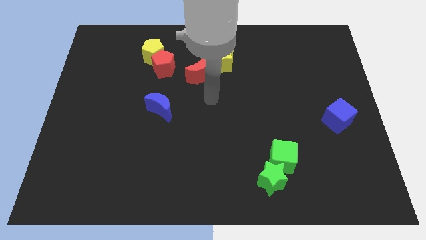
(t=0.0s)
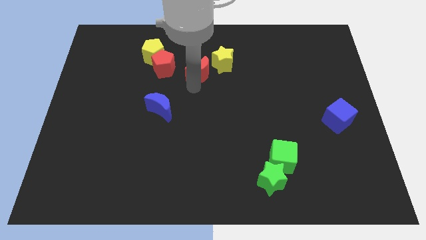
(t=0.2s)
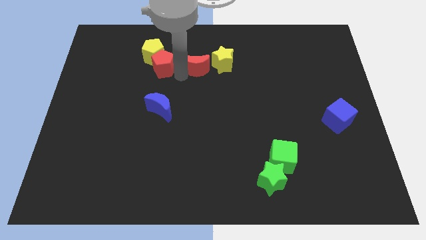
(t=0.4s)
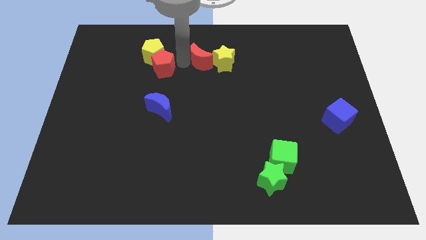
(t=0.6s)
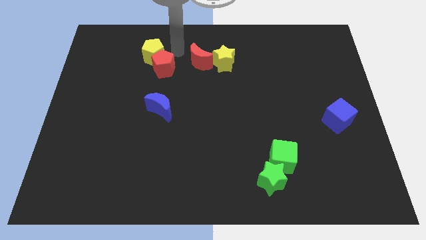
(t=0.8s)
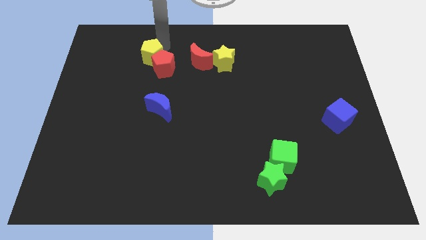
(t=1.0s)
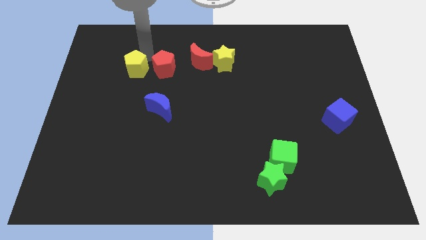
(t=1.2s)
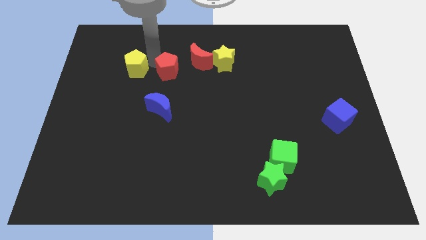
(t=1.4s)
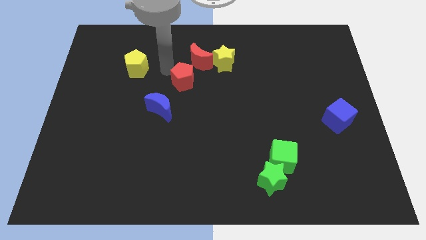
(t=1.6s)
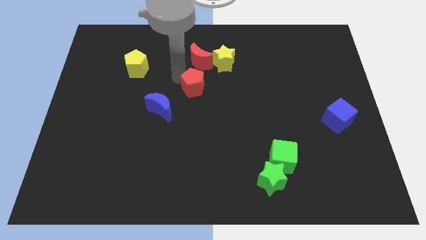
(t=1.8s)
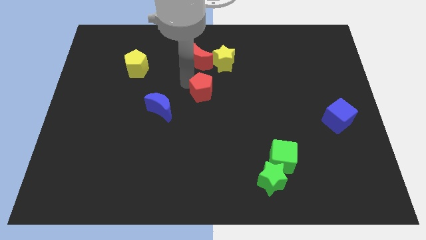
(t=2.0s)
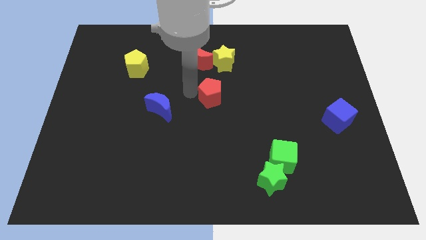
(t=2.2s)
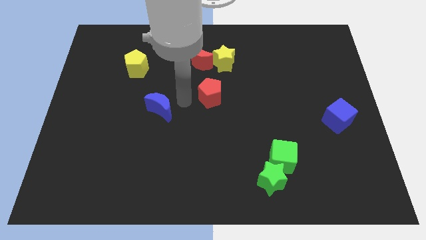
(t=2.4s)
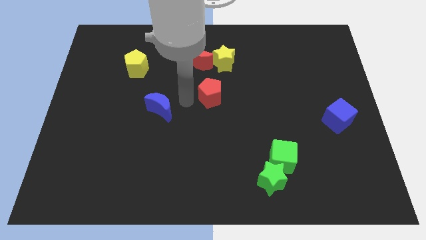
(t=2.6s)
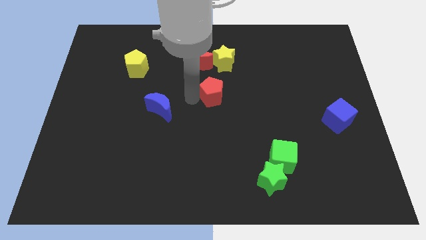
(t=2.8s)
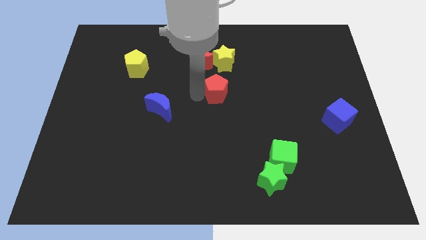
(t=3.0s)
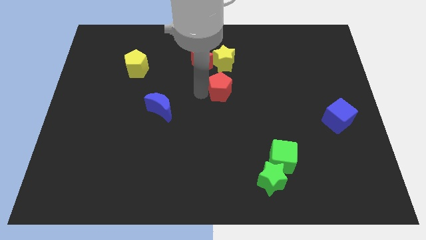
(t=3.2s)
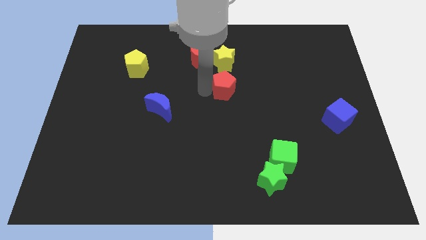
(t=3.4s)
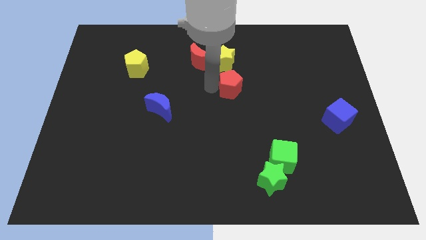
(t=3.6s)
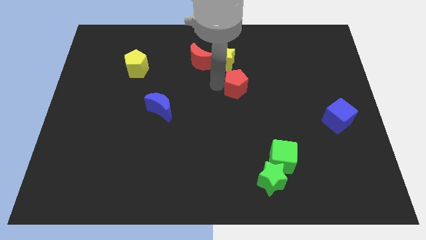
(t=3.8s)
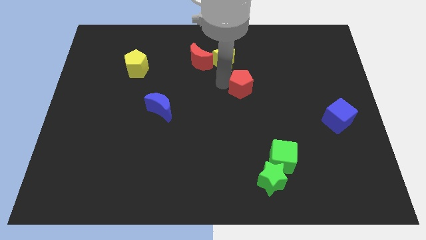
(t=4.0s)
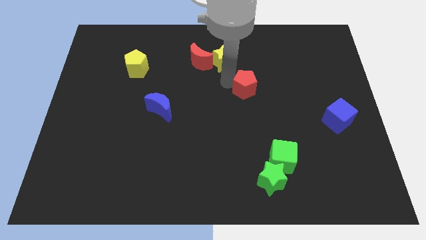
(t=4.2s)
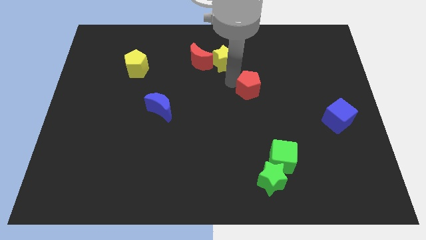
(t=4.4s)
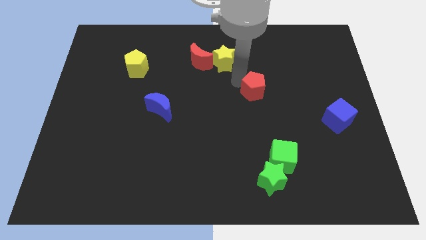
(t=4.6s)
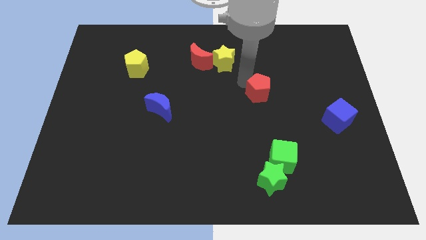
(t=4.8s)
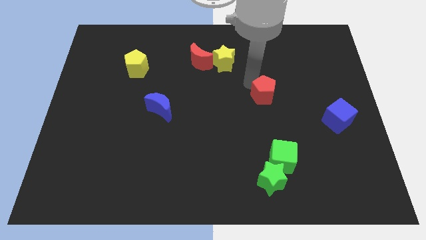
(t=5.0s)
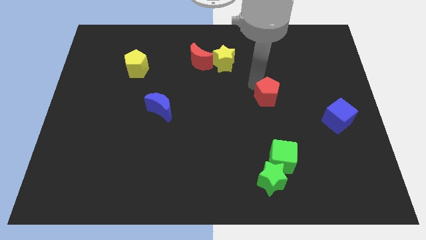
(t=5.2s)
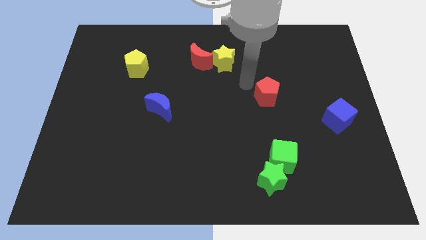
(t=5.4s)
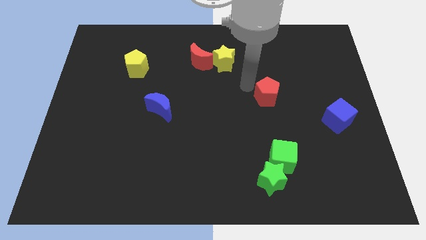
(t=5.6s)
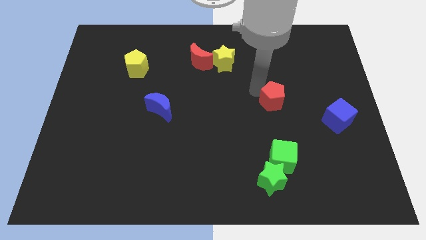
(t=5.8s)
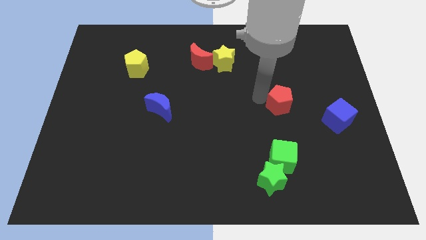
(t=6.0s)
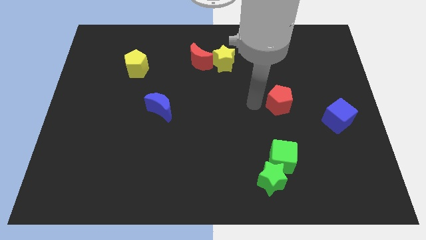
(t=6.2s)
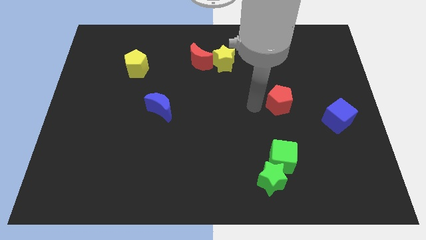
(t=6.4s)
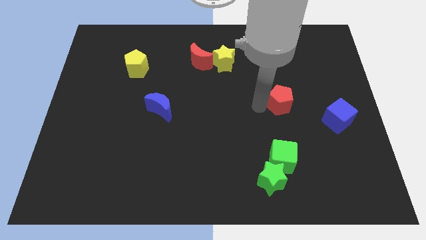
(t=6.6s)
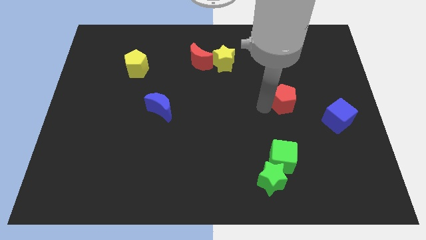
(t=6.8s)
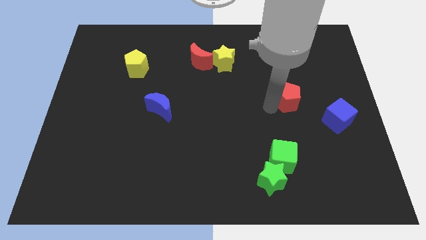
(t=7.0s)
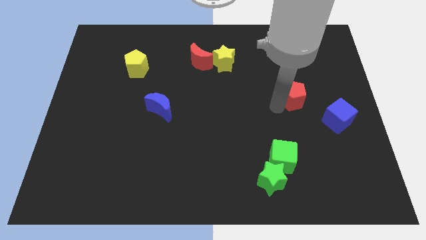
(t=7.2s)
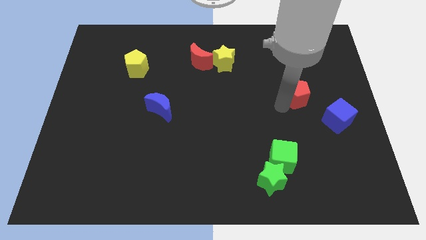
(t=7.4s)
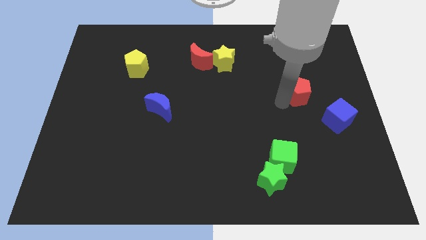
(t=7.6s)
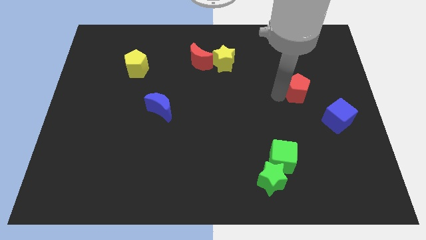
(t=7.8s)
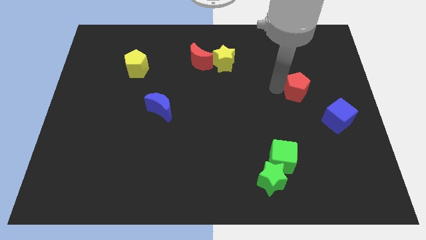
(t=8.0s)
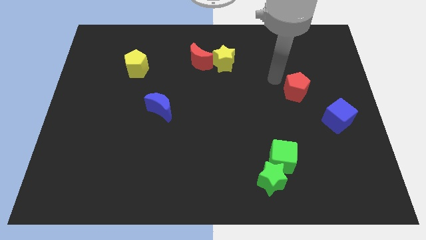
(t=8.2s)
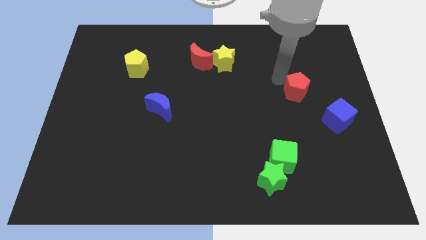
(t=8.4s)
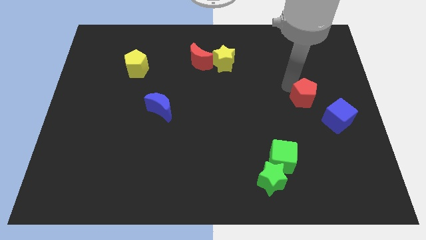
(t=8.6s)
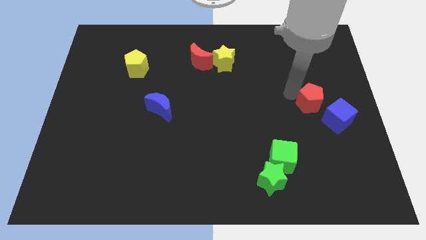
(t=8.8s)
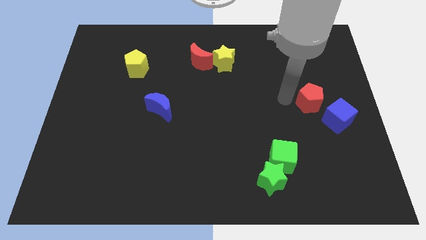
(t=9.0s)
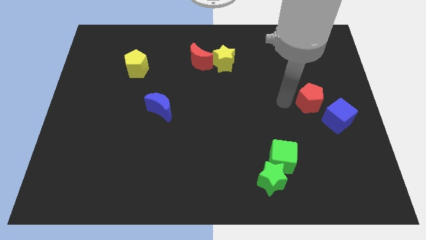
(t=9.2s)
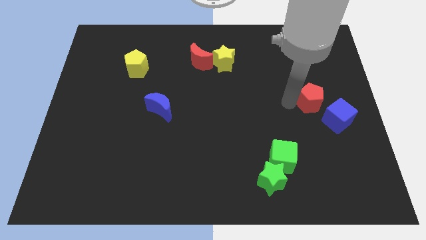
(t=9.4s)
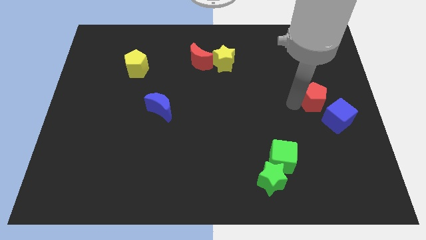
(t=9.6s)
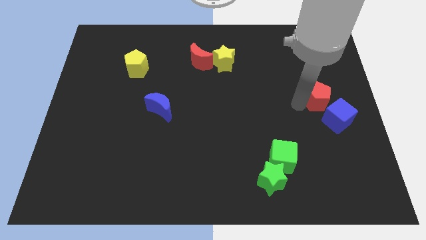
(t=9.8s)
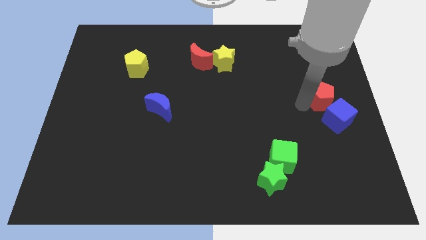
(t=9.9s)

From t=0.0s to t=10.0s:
push the red pentagon to the right side

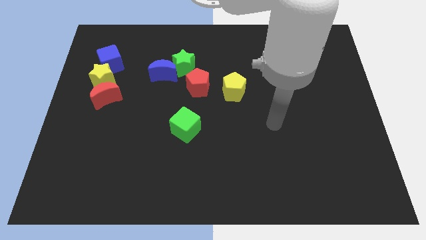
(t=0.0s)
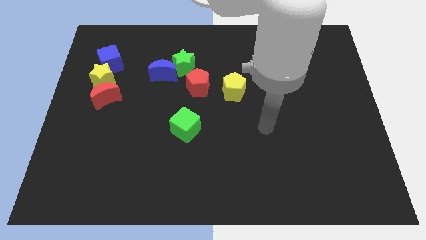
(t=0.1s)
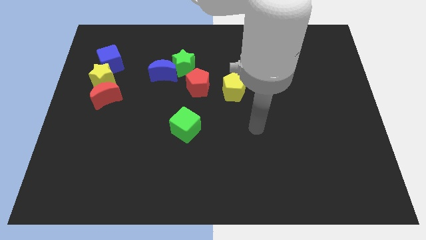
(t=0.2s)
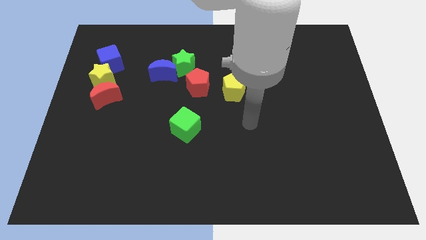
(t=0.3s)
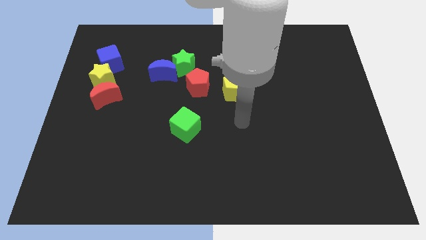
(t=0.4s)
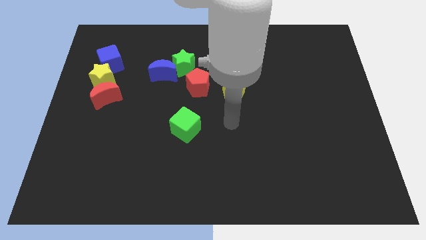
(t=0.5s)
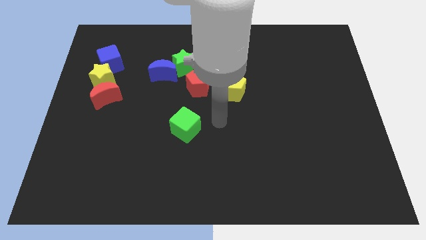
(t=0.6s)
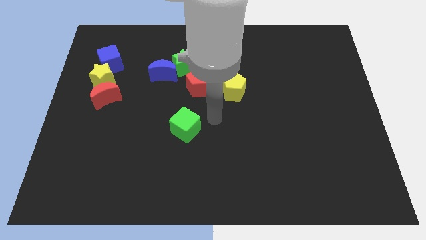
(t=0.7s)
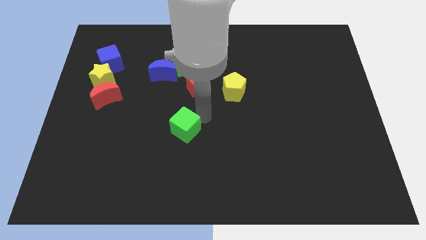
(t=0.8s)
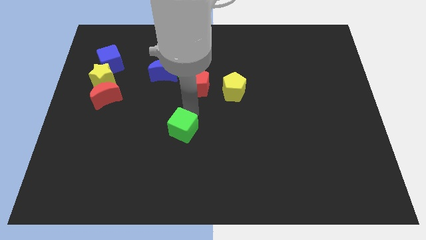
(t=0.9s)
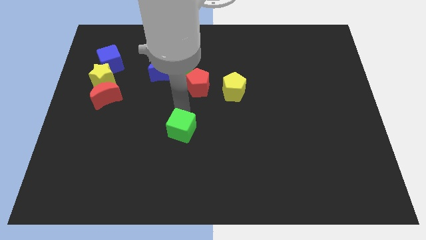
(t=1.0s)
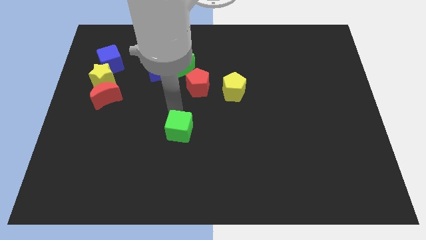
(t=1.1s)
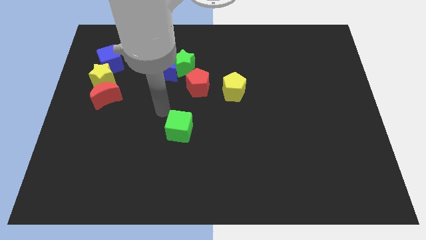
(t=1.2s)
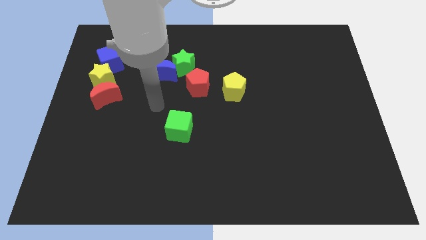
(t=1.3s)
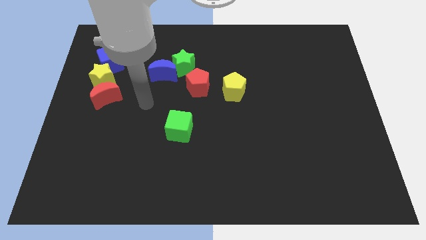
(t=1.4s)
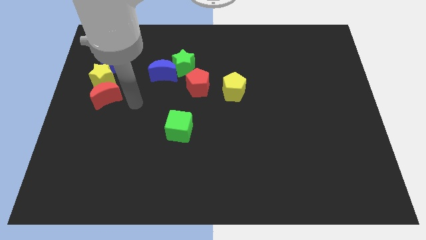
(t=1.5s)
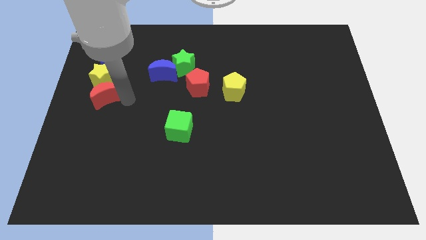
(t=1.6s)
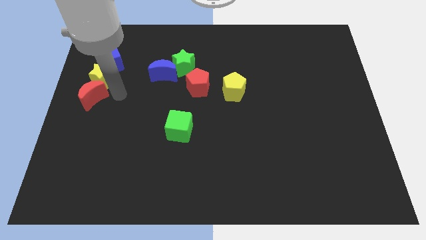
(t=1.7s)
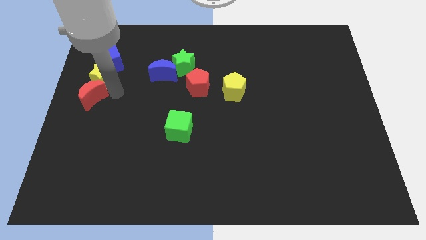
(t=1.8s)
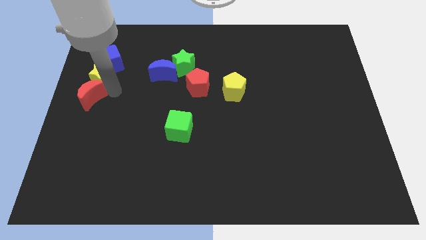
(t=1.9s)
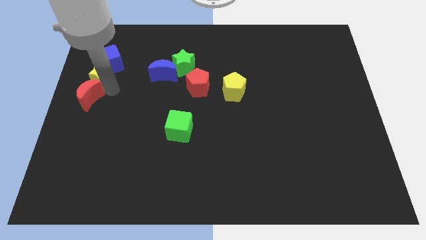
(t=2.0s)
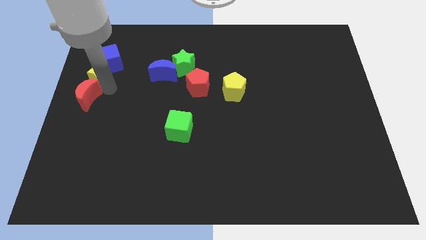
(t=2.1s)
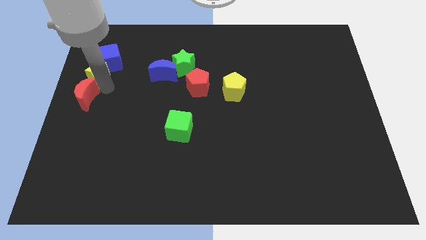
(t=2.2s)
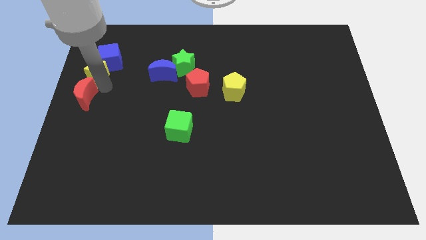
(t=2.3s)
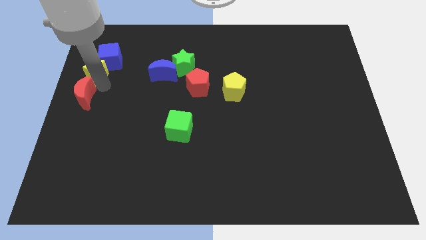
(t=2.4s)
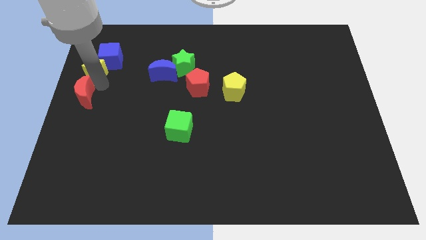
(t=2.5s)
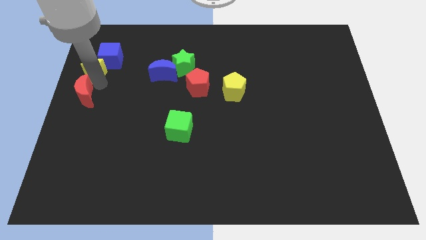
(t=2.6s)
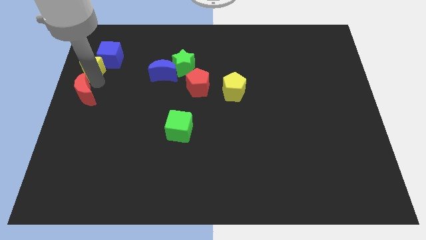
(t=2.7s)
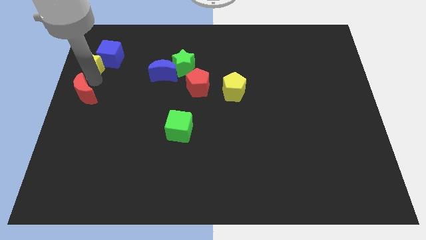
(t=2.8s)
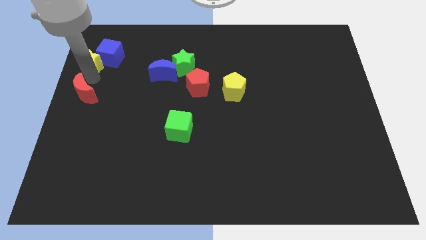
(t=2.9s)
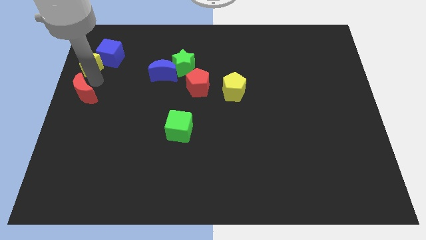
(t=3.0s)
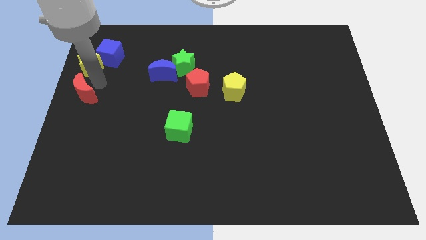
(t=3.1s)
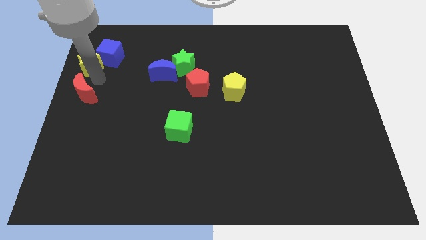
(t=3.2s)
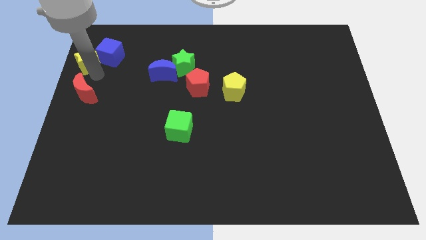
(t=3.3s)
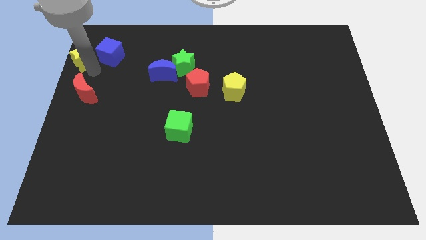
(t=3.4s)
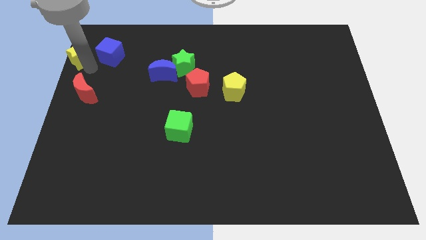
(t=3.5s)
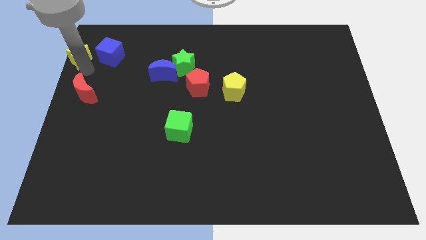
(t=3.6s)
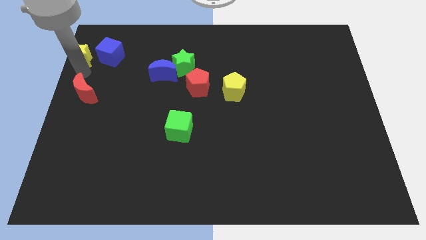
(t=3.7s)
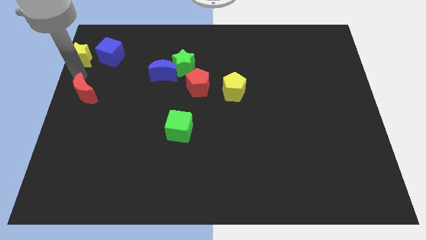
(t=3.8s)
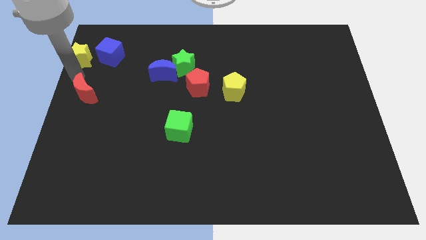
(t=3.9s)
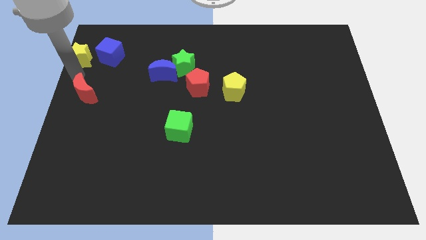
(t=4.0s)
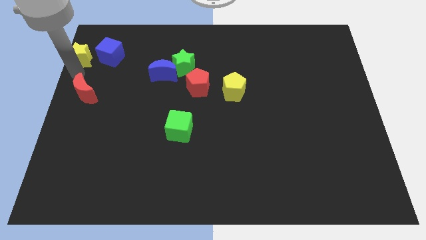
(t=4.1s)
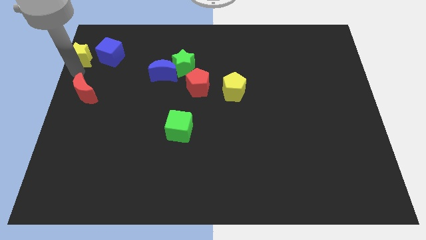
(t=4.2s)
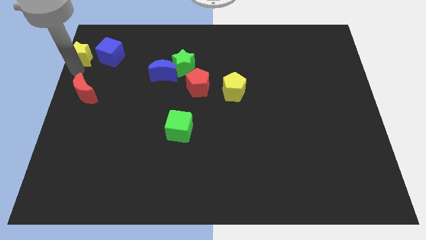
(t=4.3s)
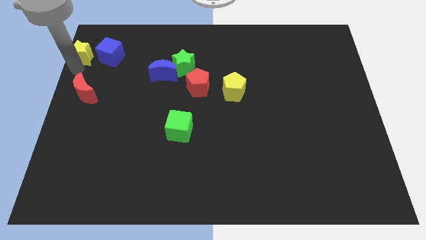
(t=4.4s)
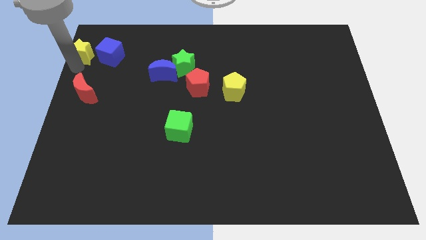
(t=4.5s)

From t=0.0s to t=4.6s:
put the yellow star to the top left of the board
